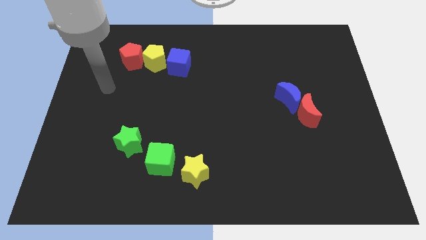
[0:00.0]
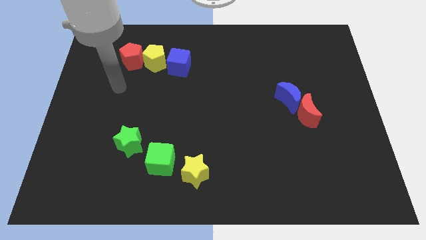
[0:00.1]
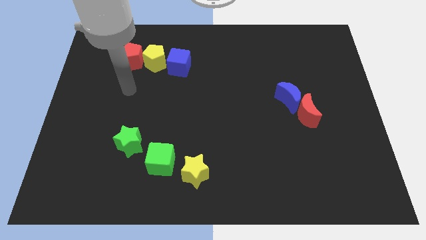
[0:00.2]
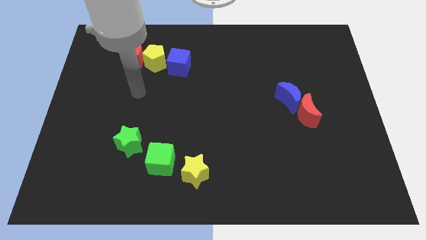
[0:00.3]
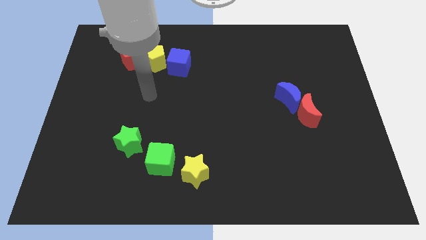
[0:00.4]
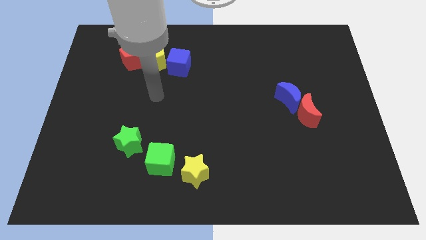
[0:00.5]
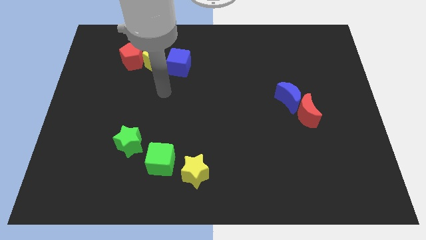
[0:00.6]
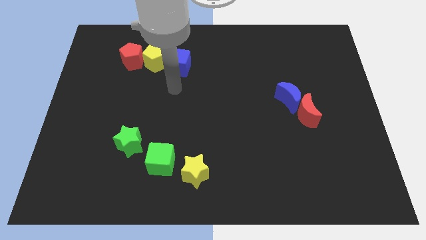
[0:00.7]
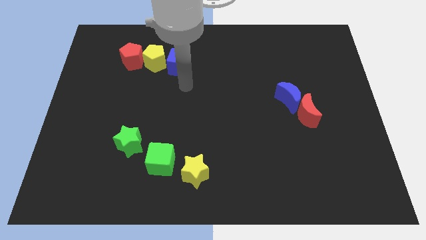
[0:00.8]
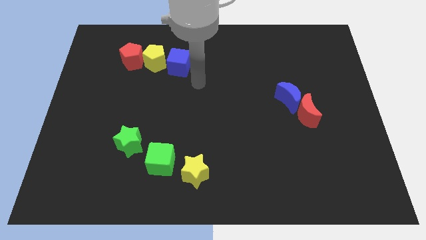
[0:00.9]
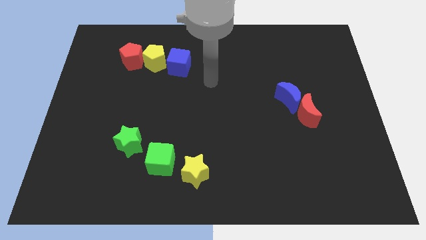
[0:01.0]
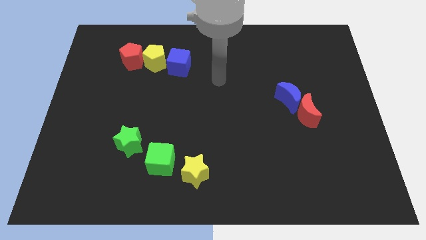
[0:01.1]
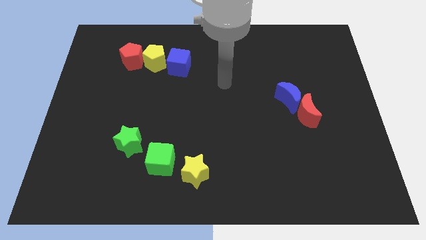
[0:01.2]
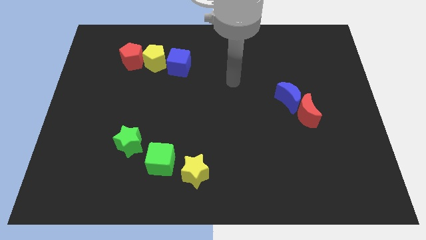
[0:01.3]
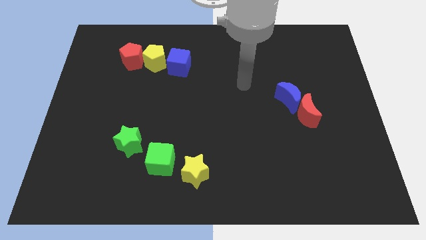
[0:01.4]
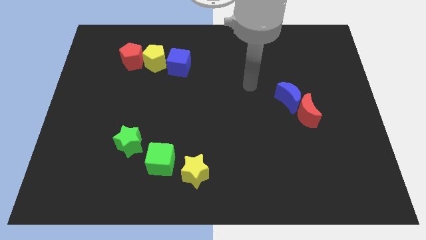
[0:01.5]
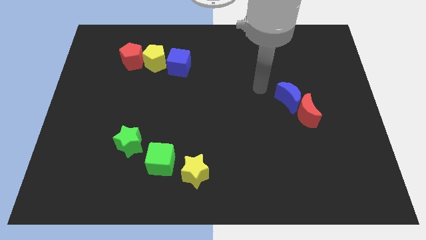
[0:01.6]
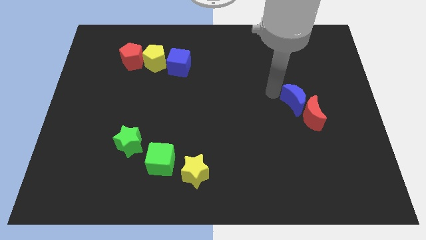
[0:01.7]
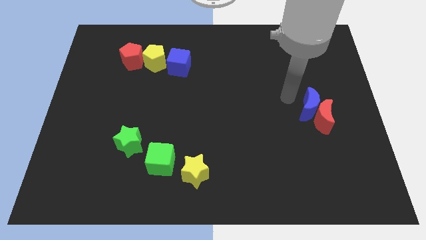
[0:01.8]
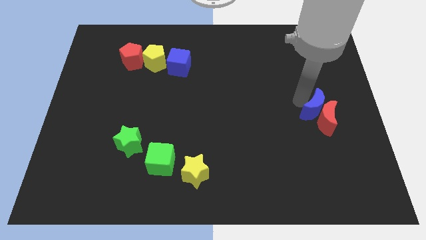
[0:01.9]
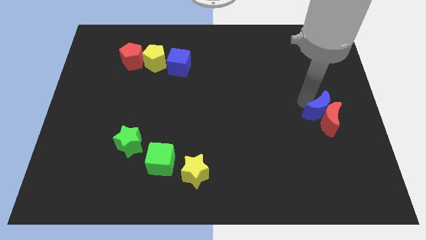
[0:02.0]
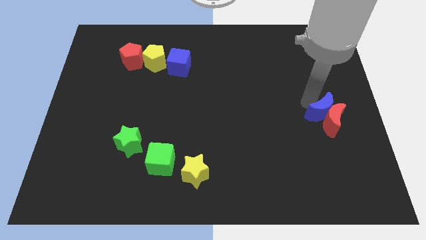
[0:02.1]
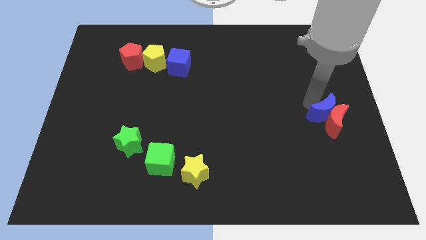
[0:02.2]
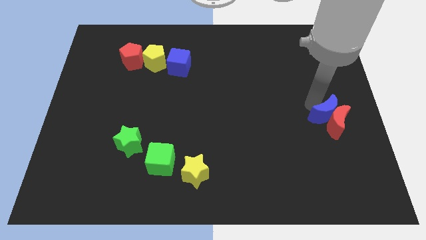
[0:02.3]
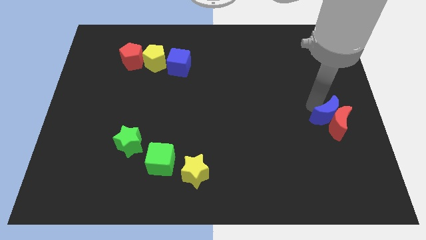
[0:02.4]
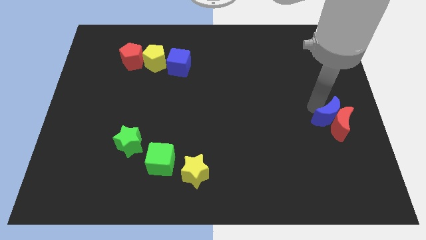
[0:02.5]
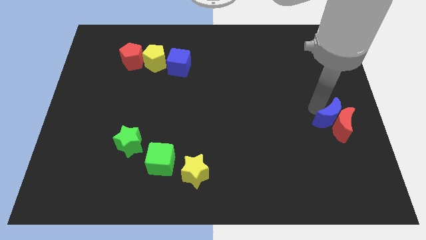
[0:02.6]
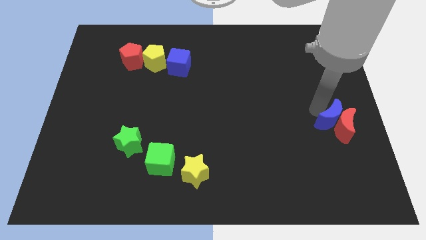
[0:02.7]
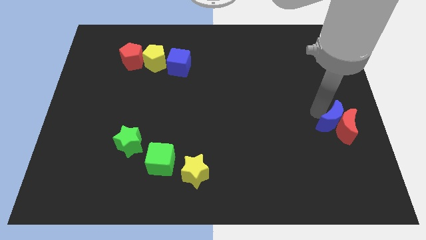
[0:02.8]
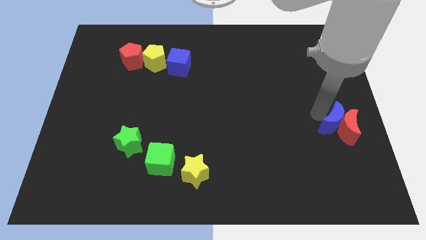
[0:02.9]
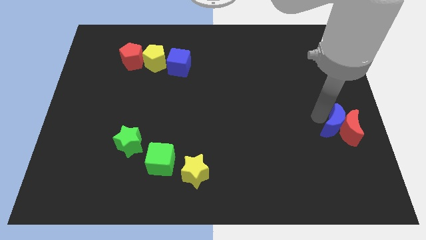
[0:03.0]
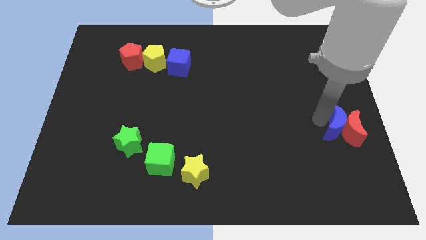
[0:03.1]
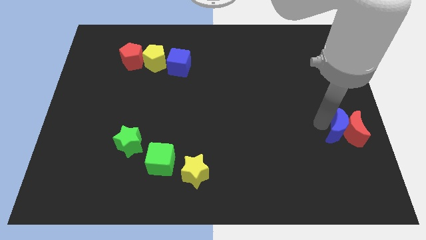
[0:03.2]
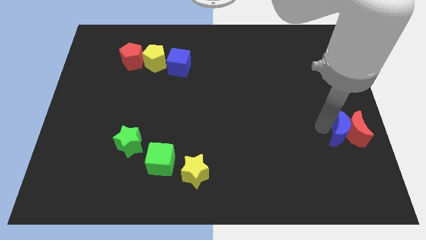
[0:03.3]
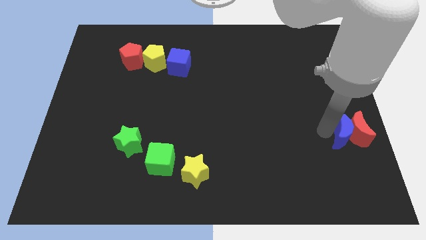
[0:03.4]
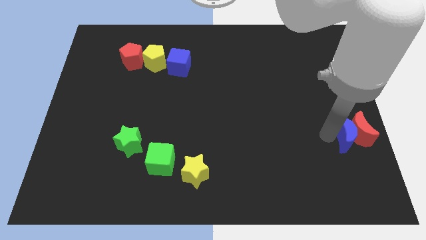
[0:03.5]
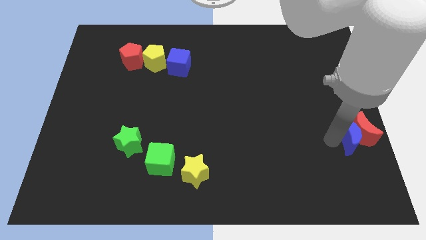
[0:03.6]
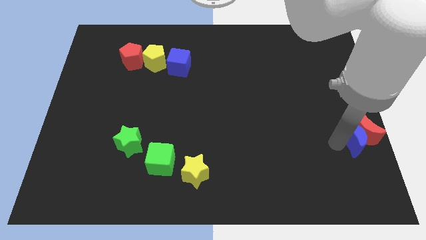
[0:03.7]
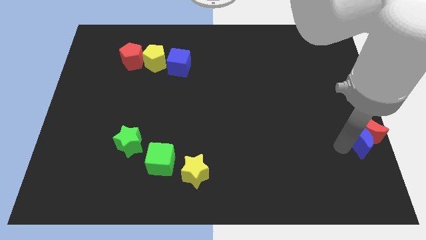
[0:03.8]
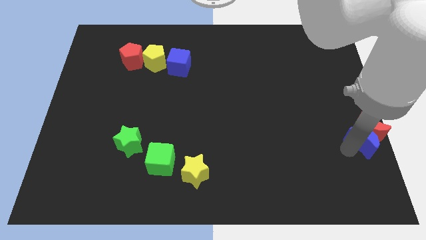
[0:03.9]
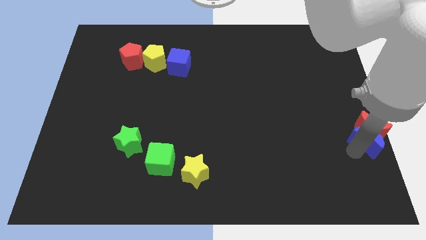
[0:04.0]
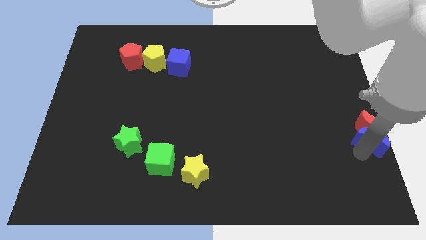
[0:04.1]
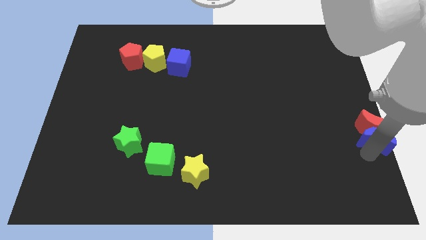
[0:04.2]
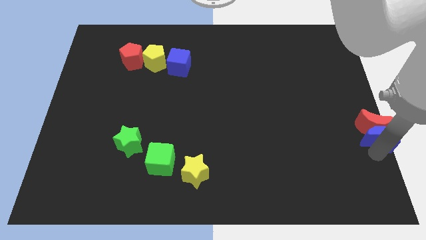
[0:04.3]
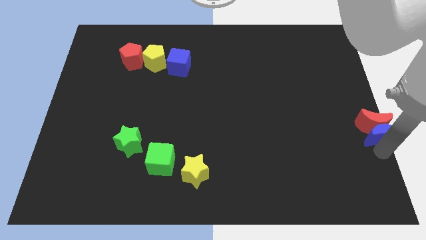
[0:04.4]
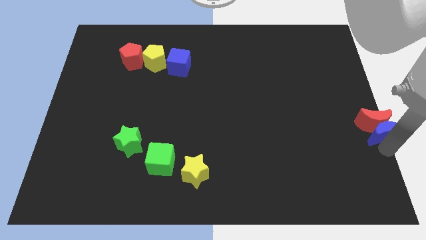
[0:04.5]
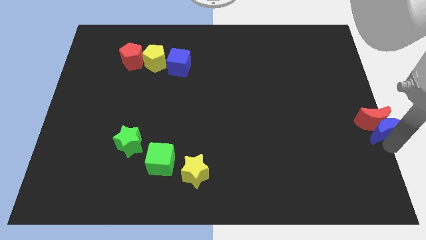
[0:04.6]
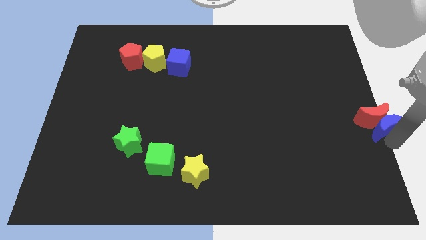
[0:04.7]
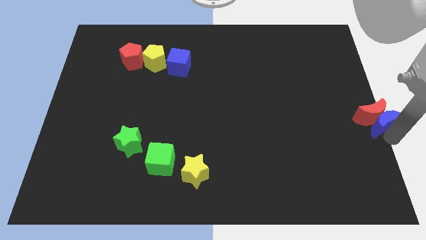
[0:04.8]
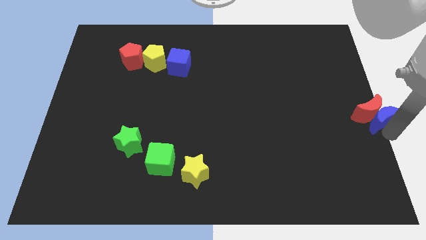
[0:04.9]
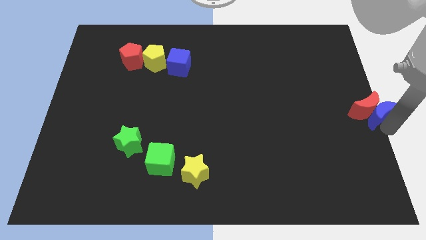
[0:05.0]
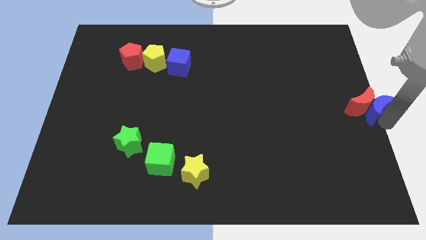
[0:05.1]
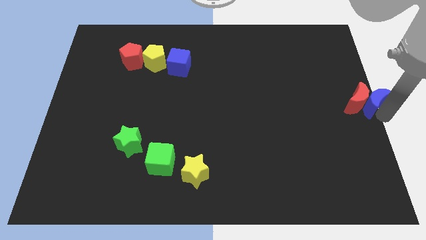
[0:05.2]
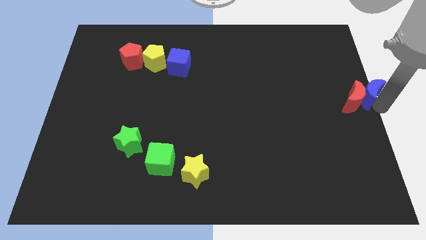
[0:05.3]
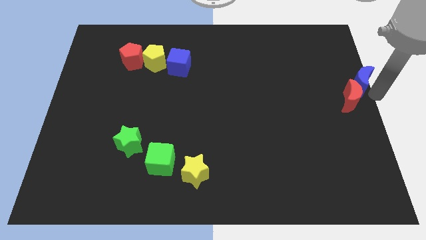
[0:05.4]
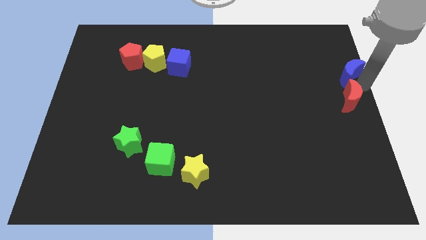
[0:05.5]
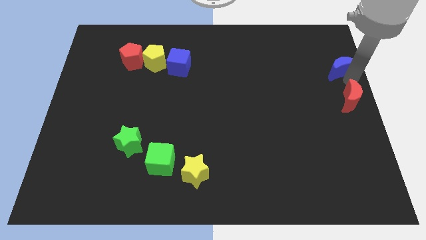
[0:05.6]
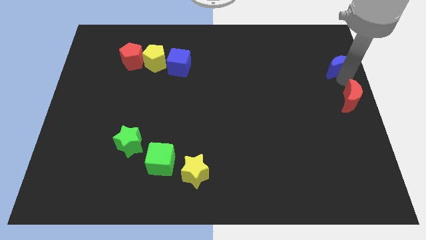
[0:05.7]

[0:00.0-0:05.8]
pull the red moon apart from the blue moon

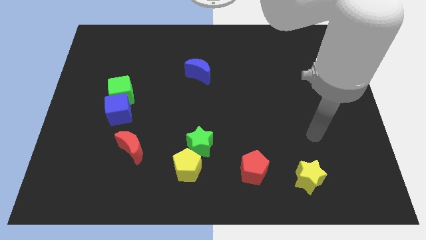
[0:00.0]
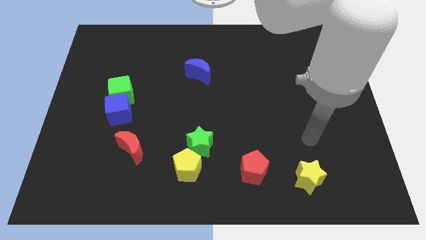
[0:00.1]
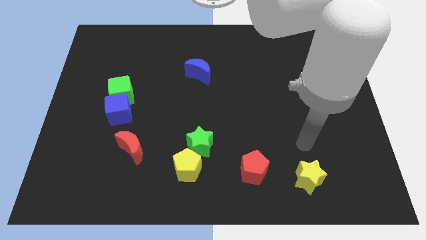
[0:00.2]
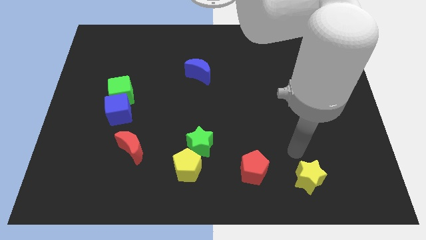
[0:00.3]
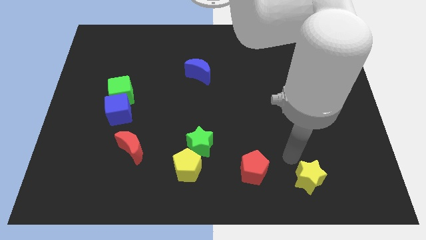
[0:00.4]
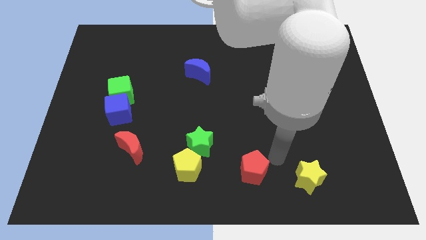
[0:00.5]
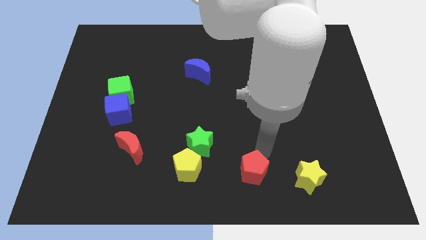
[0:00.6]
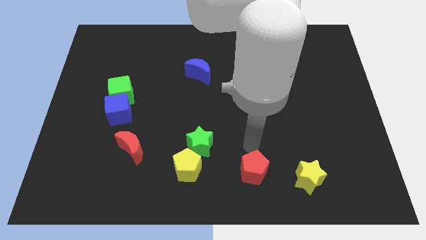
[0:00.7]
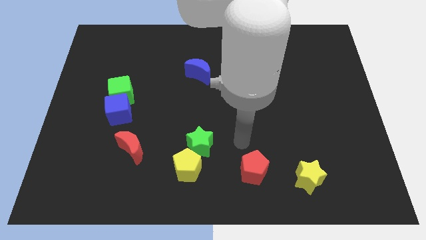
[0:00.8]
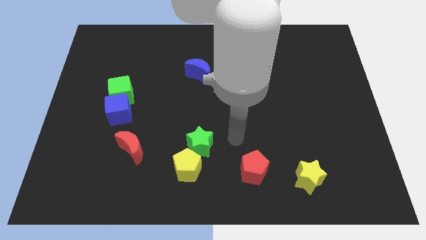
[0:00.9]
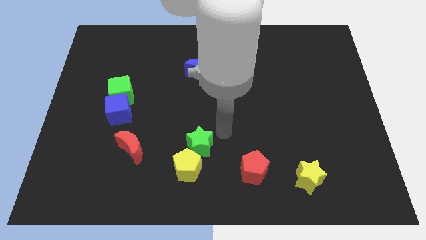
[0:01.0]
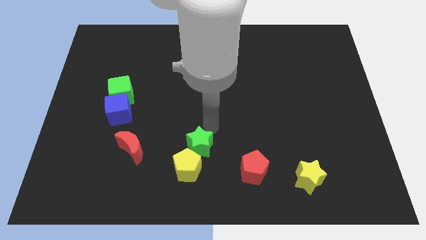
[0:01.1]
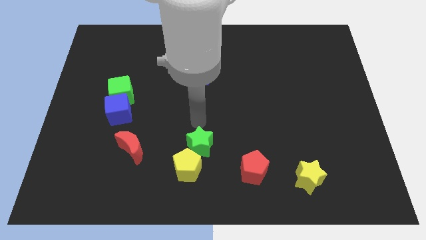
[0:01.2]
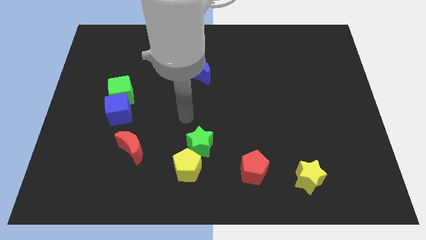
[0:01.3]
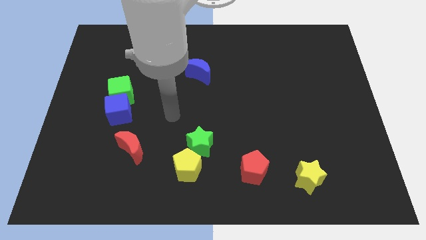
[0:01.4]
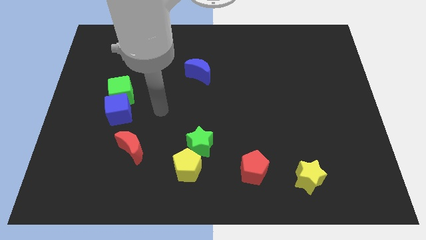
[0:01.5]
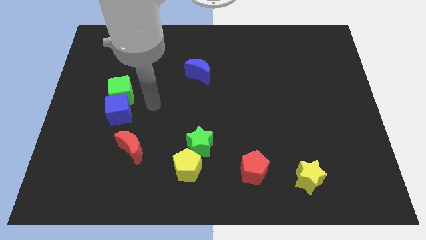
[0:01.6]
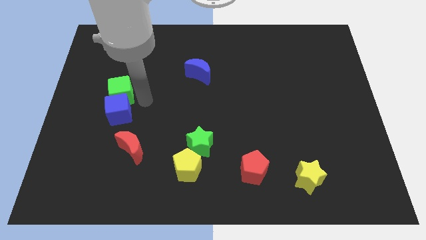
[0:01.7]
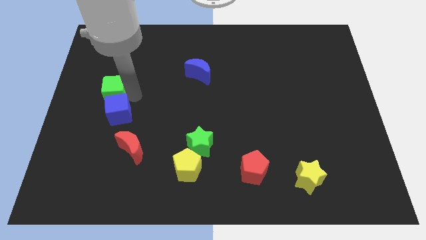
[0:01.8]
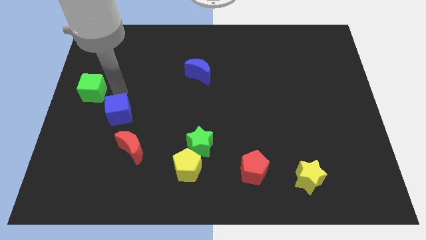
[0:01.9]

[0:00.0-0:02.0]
separate the blue cube from the green cube

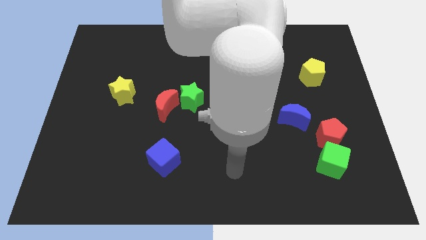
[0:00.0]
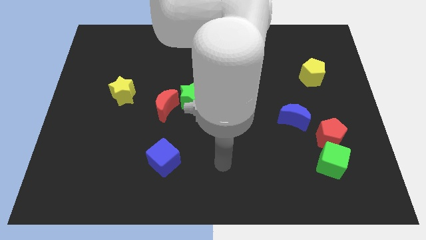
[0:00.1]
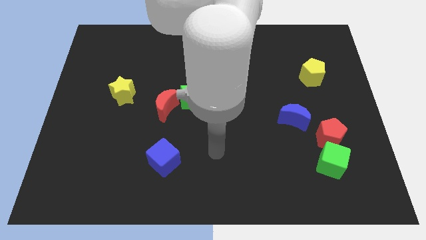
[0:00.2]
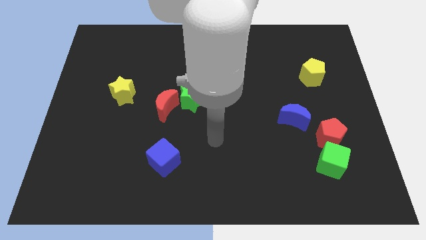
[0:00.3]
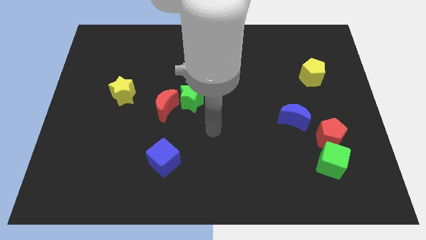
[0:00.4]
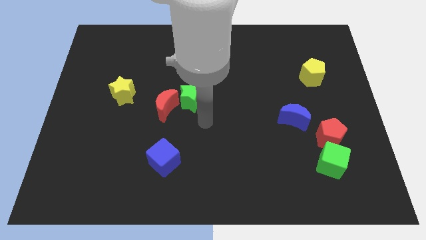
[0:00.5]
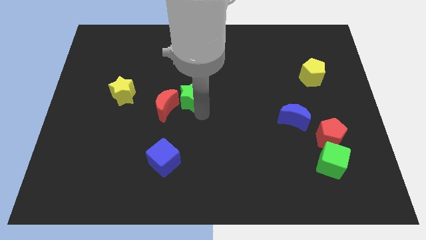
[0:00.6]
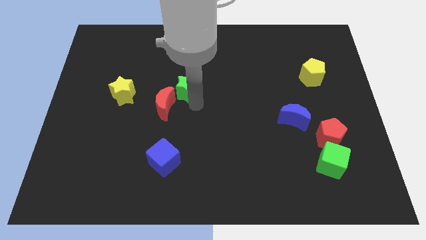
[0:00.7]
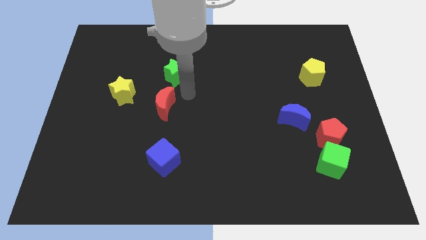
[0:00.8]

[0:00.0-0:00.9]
pull the red moon apart from the green star

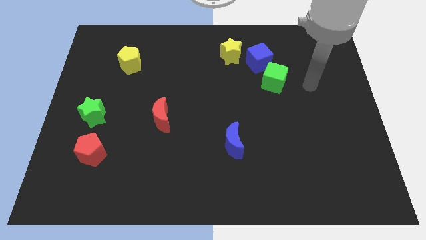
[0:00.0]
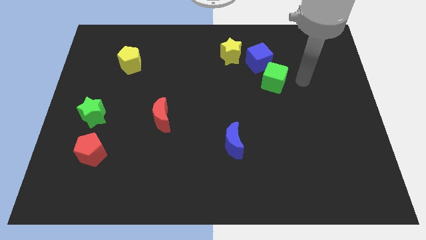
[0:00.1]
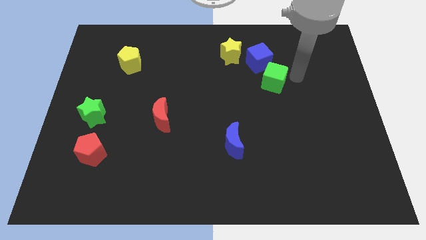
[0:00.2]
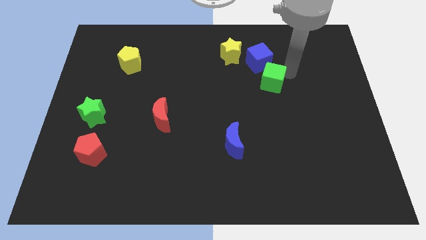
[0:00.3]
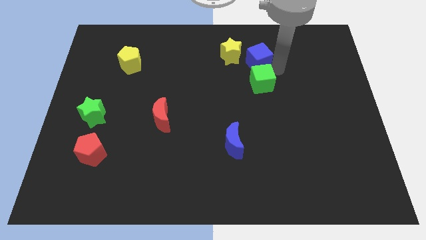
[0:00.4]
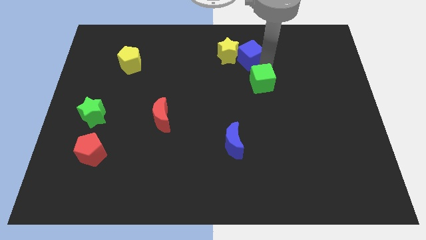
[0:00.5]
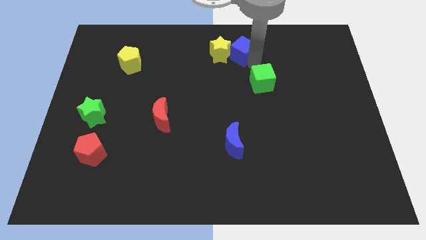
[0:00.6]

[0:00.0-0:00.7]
move the green cube away from the blue cube
